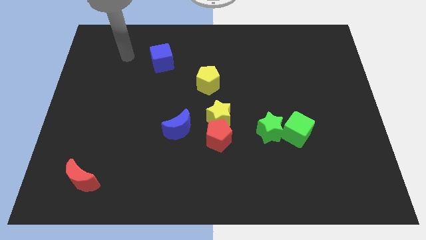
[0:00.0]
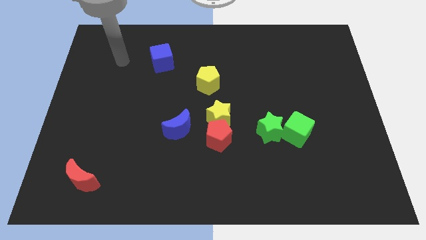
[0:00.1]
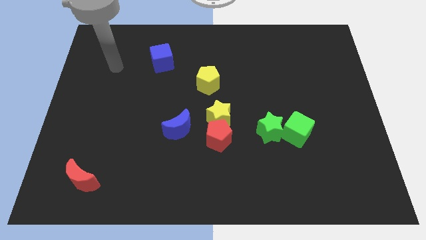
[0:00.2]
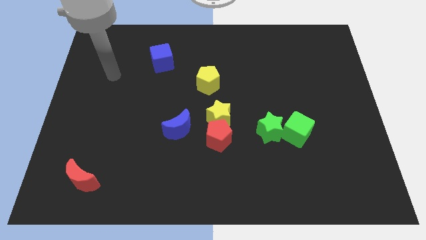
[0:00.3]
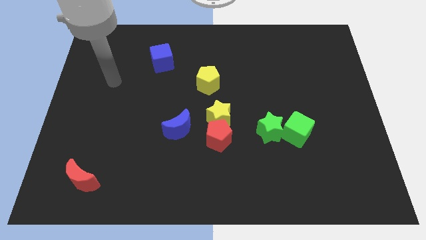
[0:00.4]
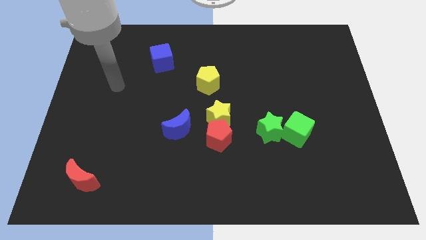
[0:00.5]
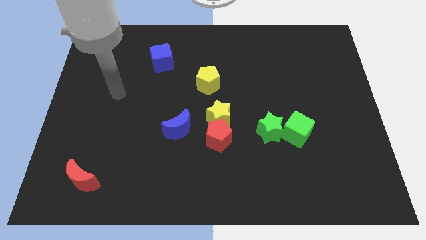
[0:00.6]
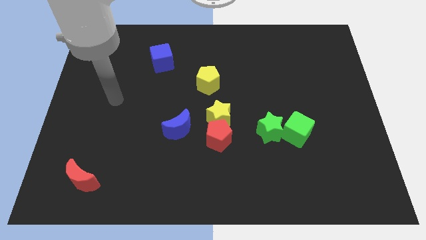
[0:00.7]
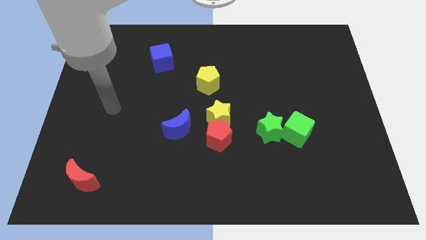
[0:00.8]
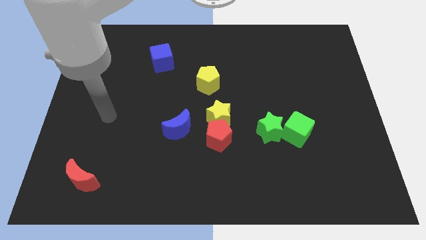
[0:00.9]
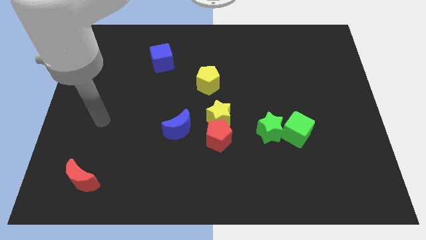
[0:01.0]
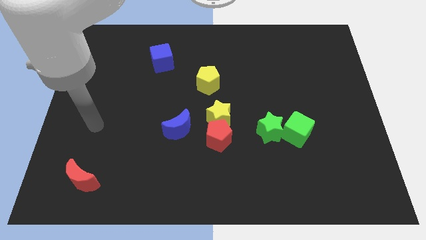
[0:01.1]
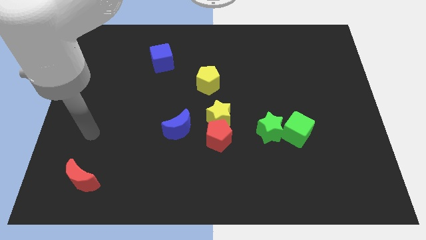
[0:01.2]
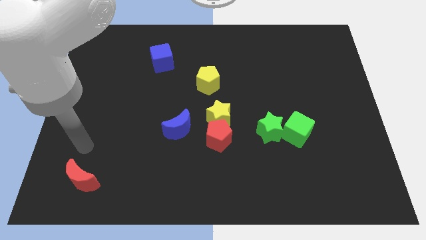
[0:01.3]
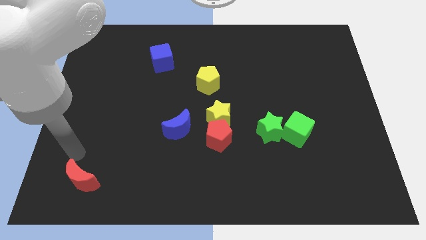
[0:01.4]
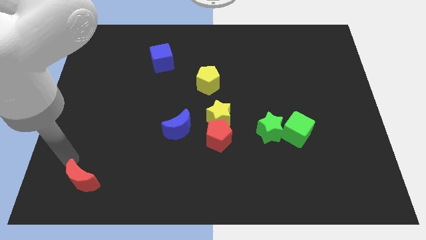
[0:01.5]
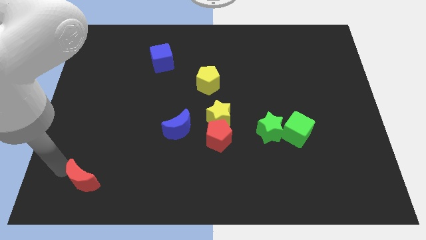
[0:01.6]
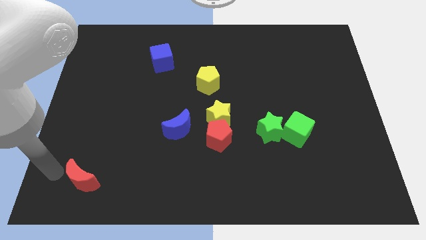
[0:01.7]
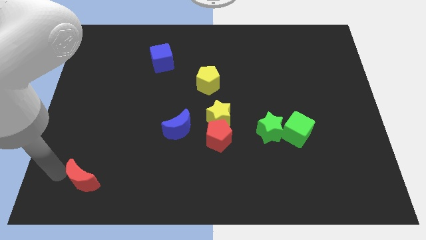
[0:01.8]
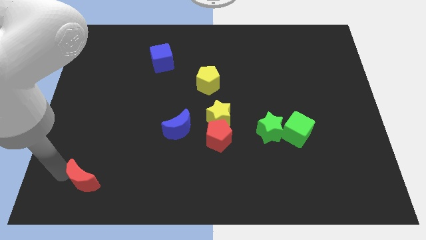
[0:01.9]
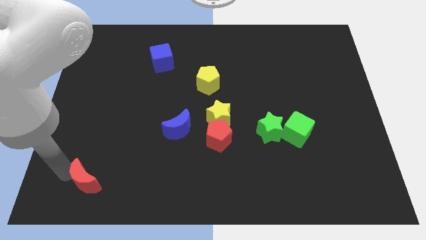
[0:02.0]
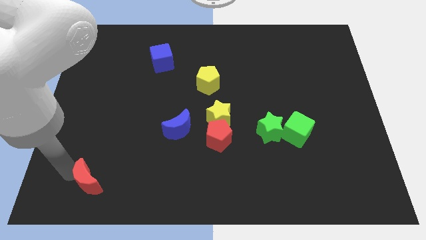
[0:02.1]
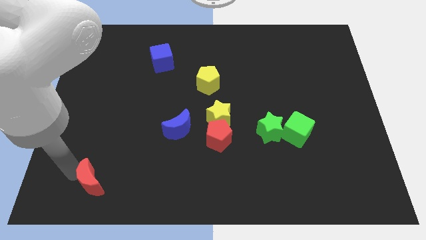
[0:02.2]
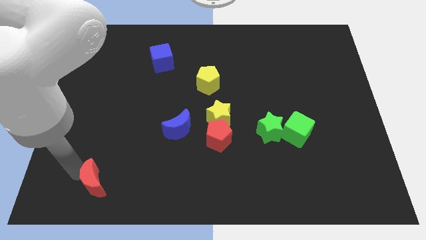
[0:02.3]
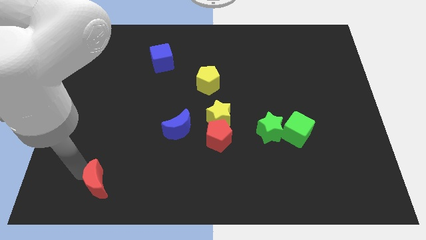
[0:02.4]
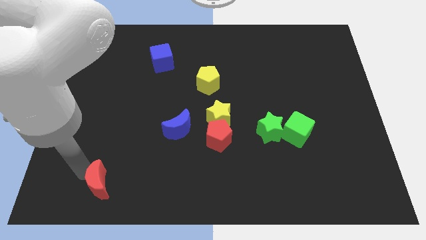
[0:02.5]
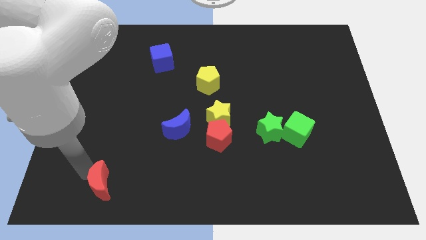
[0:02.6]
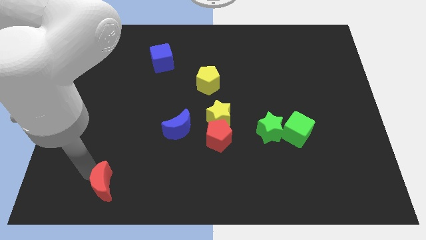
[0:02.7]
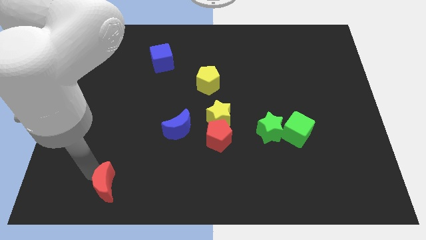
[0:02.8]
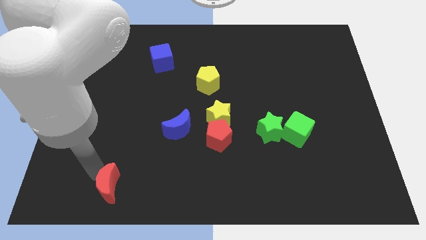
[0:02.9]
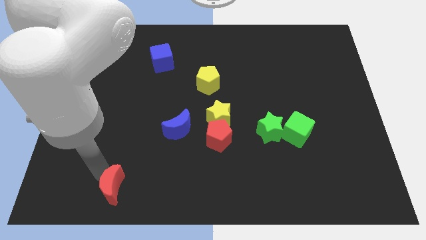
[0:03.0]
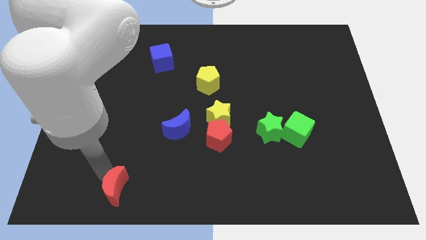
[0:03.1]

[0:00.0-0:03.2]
move the red moon right a little bit

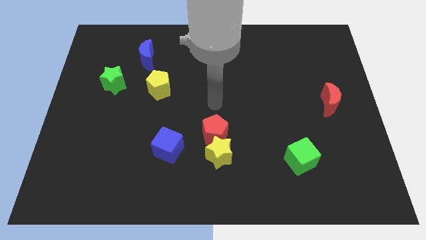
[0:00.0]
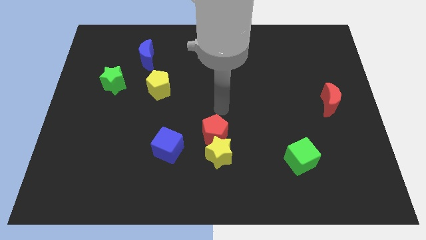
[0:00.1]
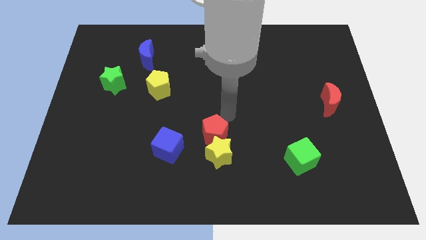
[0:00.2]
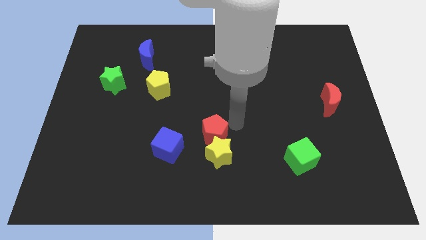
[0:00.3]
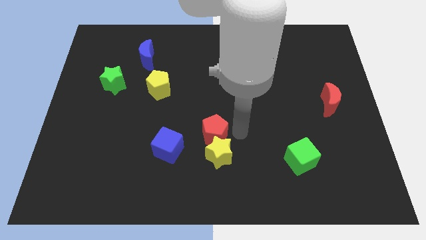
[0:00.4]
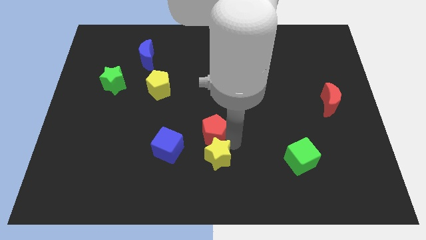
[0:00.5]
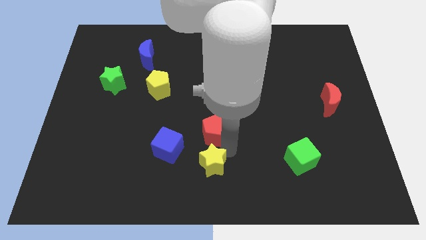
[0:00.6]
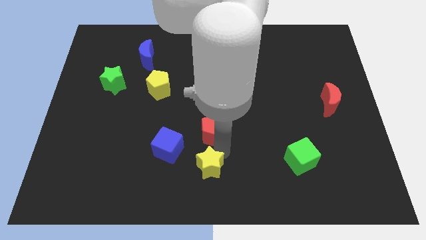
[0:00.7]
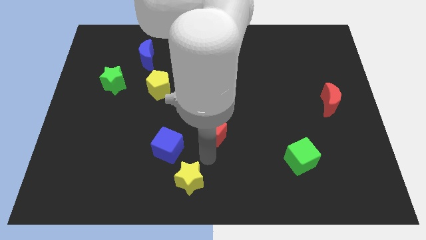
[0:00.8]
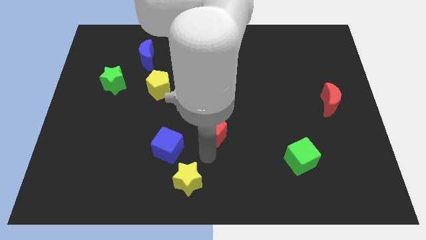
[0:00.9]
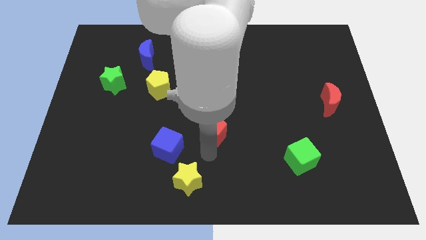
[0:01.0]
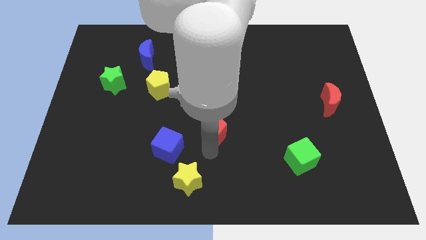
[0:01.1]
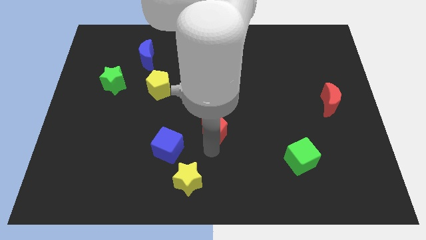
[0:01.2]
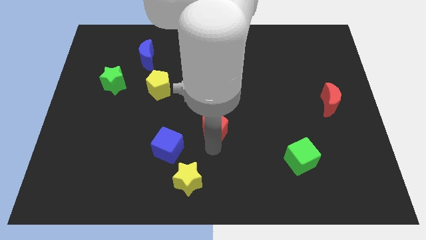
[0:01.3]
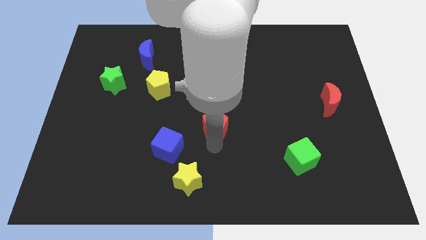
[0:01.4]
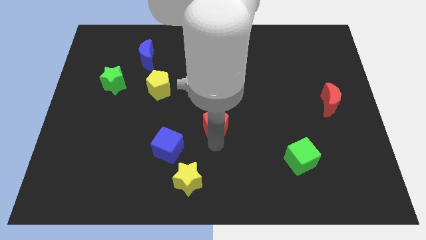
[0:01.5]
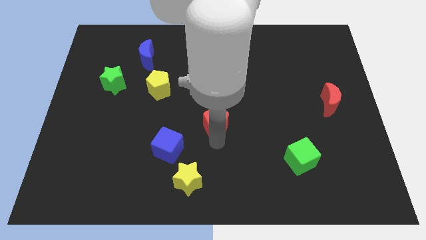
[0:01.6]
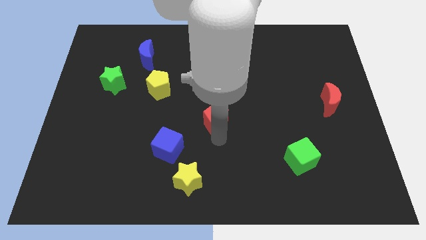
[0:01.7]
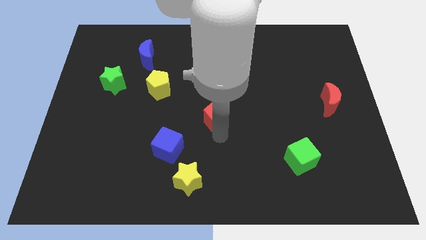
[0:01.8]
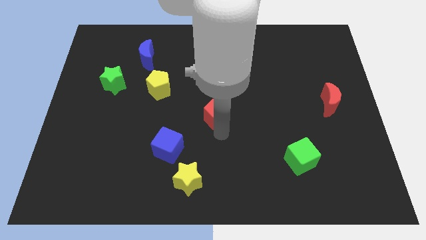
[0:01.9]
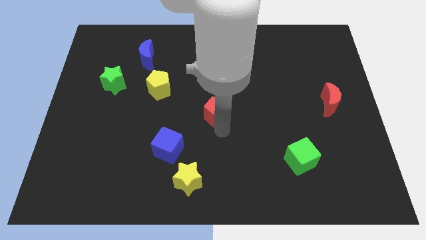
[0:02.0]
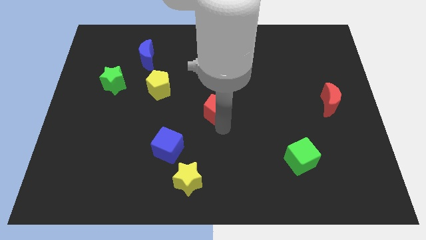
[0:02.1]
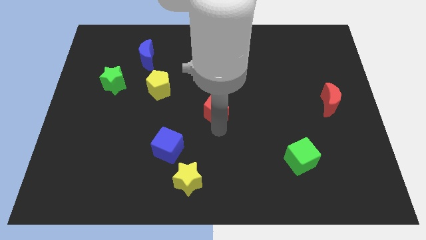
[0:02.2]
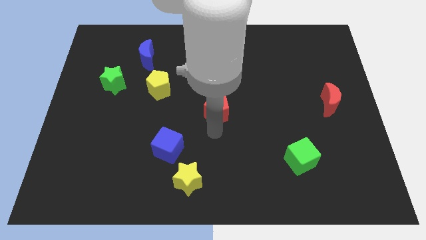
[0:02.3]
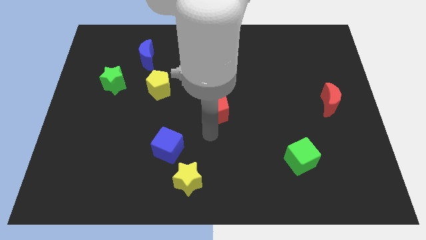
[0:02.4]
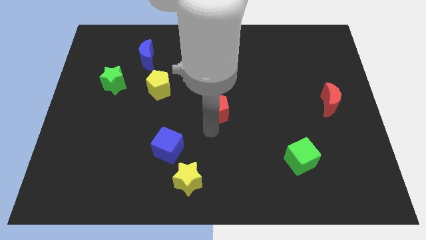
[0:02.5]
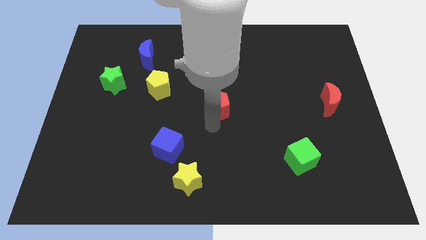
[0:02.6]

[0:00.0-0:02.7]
slide the red pentagon a little bit up

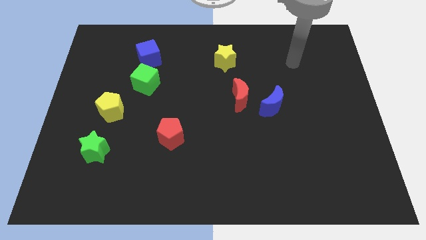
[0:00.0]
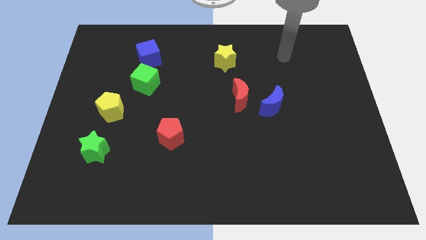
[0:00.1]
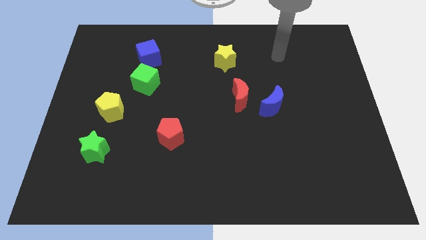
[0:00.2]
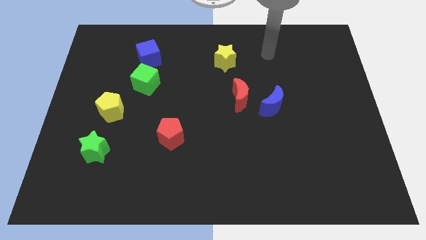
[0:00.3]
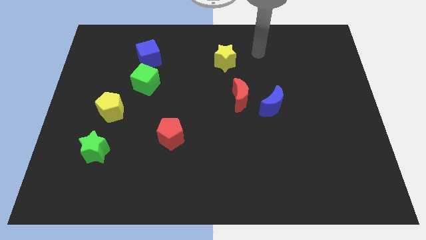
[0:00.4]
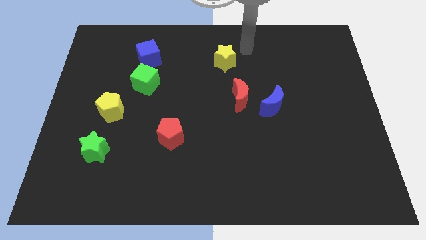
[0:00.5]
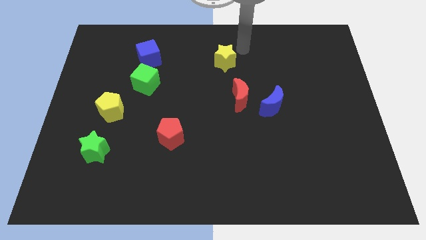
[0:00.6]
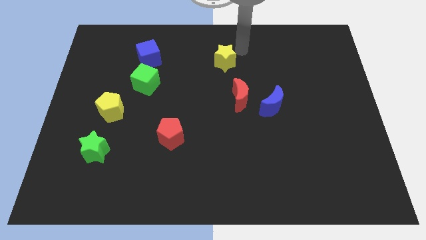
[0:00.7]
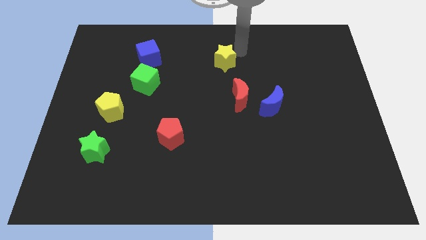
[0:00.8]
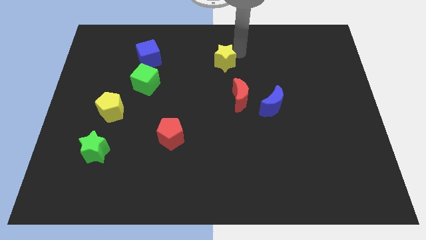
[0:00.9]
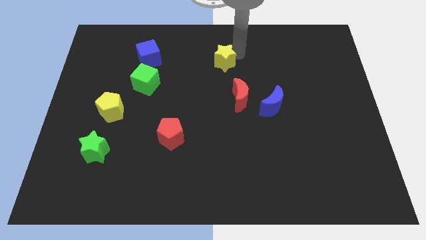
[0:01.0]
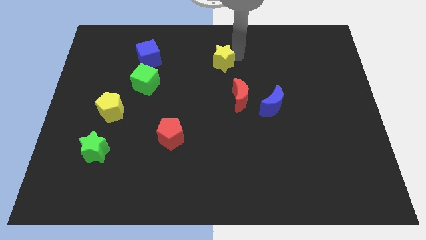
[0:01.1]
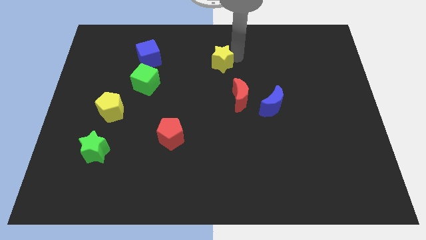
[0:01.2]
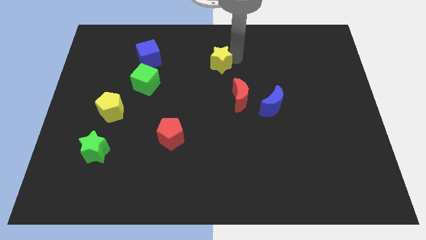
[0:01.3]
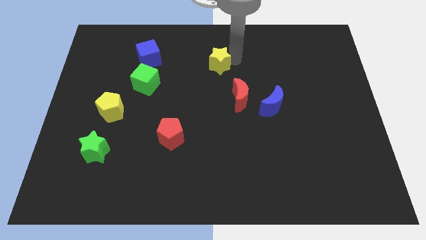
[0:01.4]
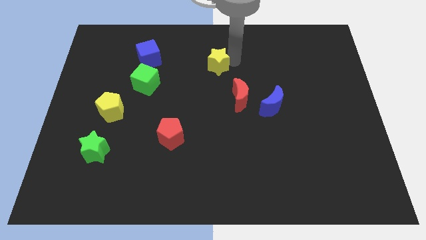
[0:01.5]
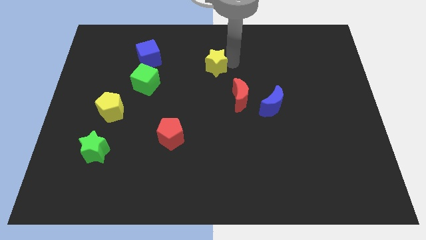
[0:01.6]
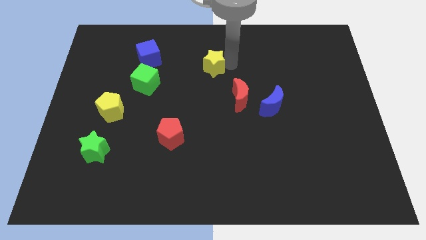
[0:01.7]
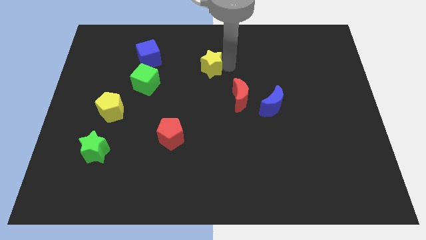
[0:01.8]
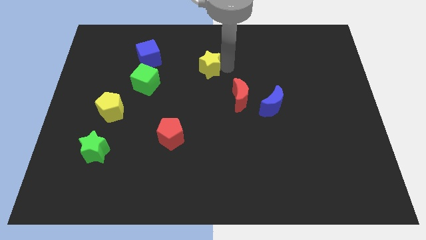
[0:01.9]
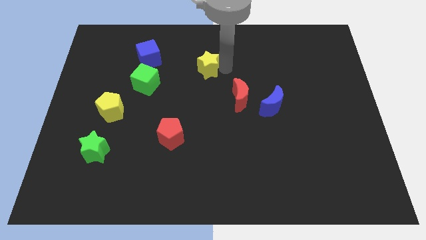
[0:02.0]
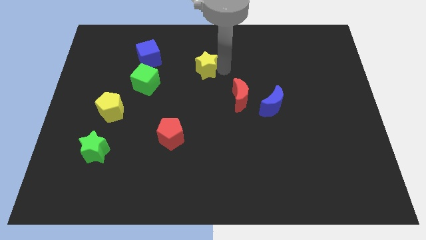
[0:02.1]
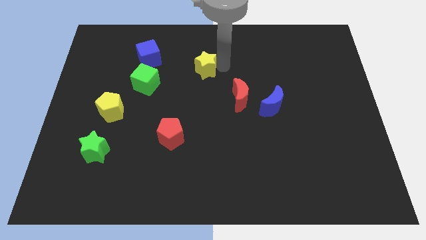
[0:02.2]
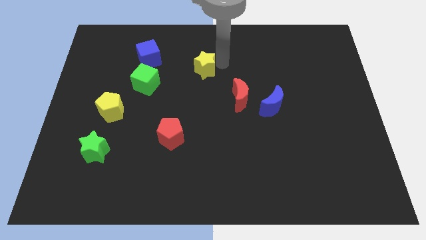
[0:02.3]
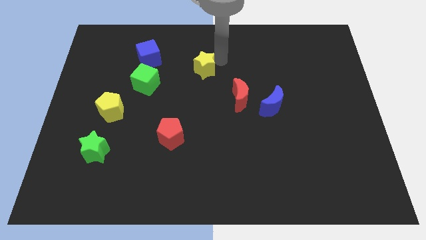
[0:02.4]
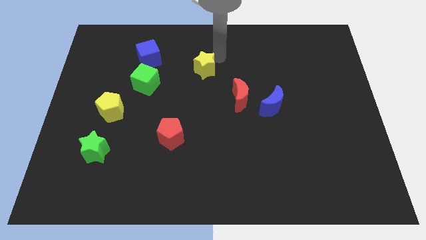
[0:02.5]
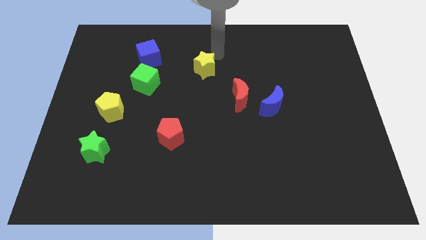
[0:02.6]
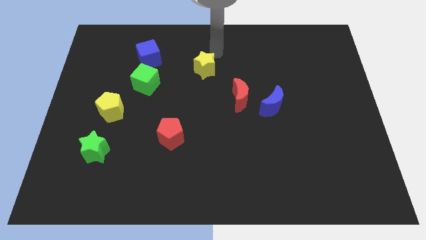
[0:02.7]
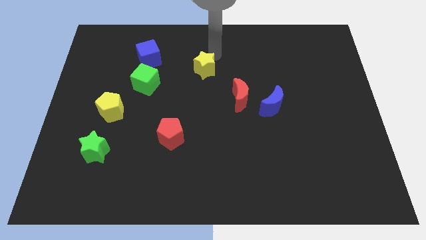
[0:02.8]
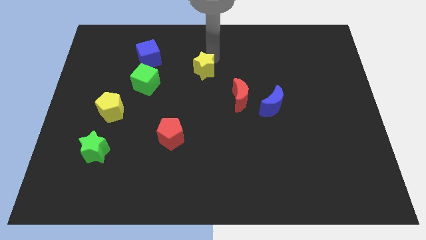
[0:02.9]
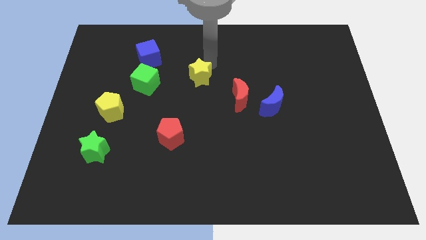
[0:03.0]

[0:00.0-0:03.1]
slightly move the yellow star diagonally downwards and to the left
